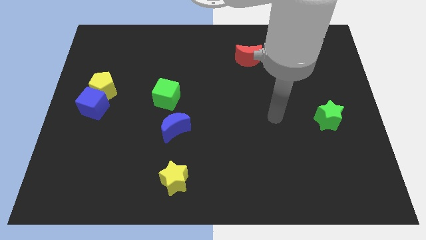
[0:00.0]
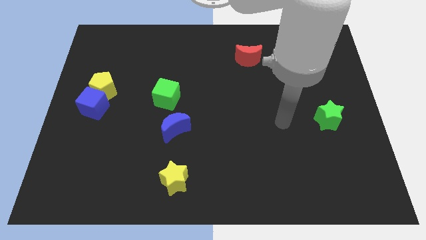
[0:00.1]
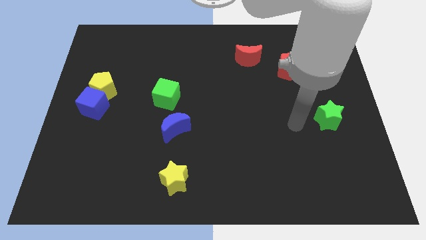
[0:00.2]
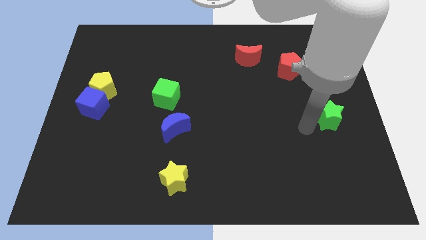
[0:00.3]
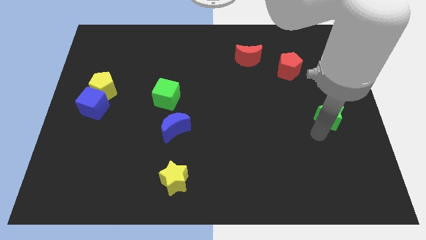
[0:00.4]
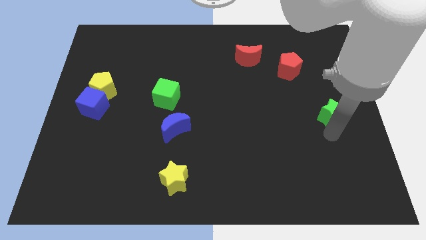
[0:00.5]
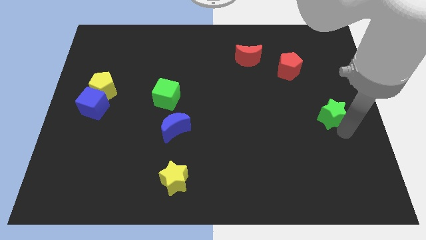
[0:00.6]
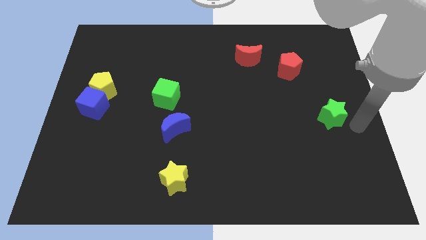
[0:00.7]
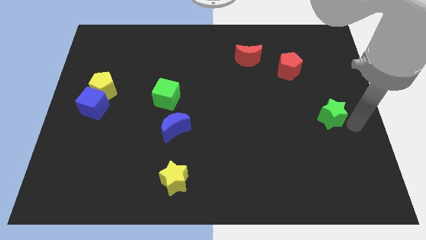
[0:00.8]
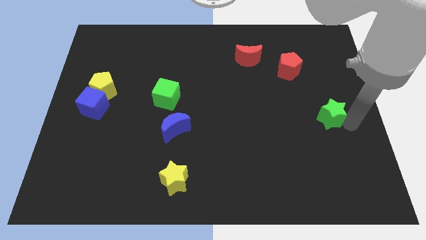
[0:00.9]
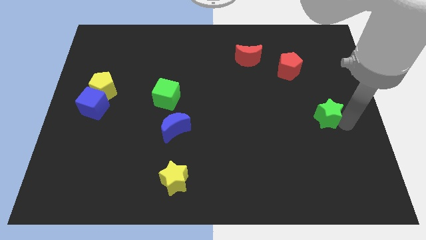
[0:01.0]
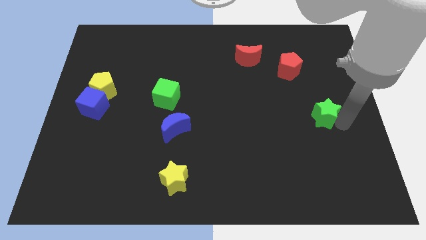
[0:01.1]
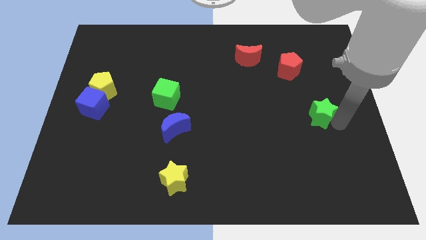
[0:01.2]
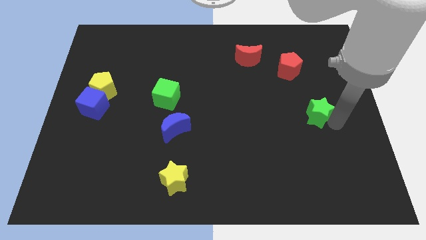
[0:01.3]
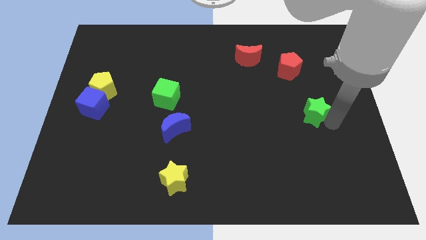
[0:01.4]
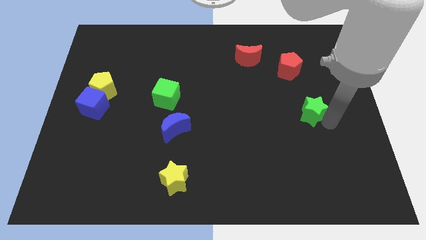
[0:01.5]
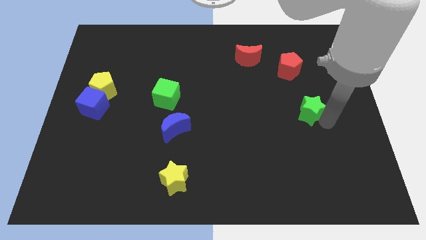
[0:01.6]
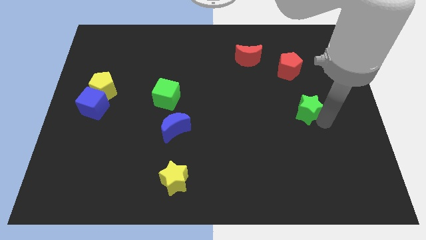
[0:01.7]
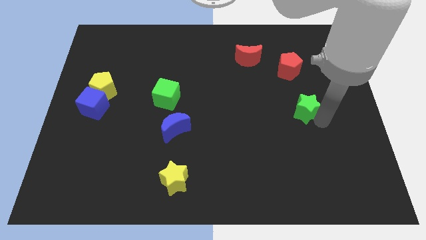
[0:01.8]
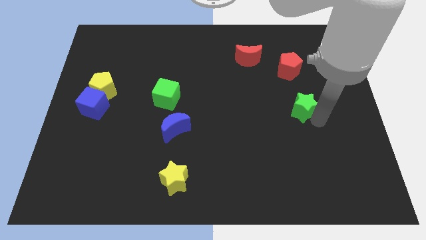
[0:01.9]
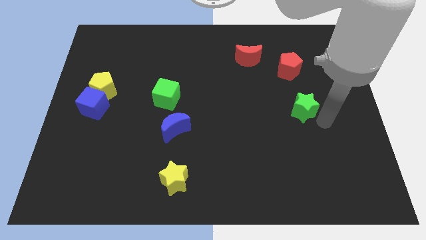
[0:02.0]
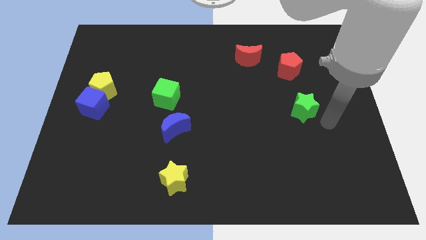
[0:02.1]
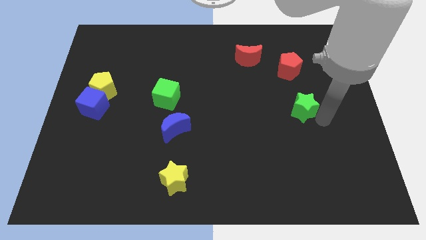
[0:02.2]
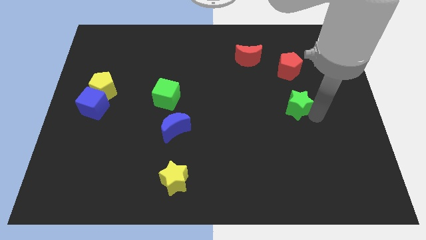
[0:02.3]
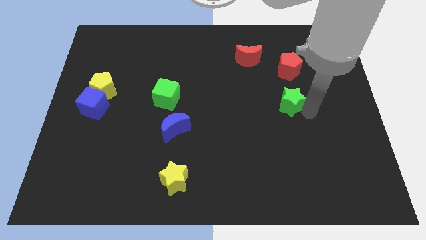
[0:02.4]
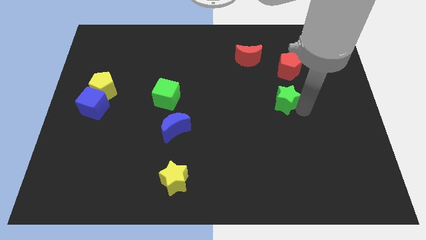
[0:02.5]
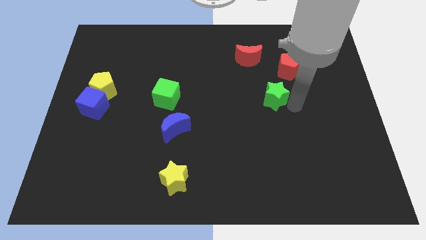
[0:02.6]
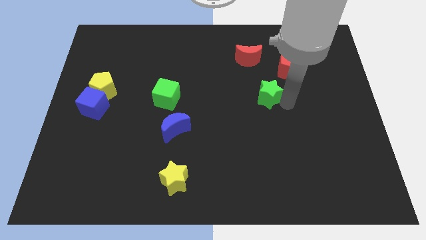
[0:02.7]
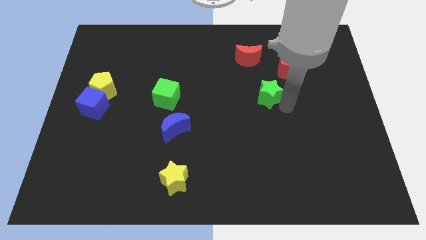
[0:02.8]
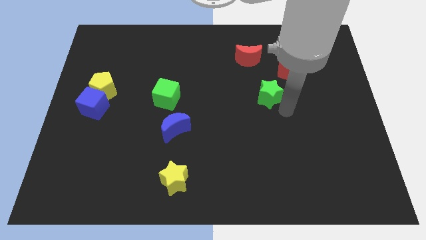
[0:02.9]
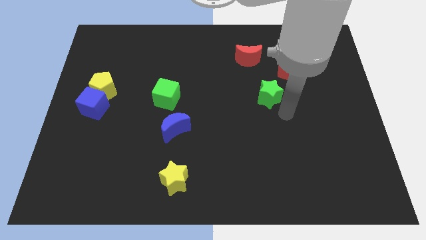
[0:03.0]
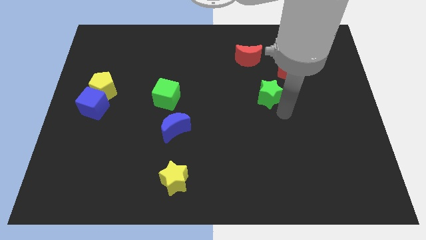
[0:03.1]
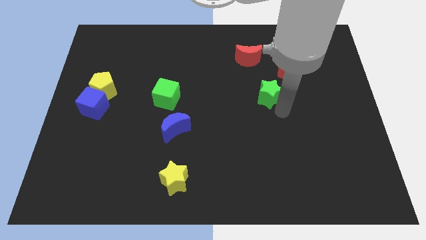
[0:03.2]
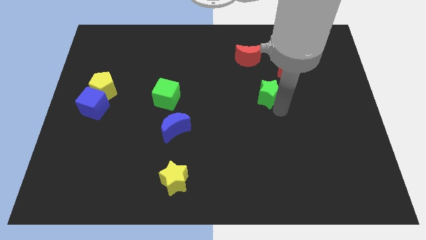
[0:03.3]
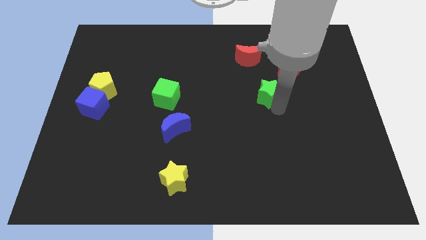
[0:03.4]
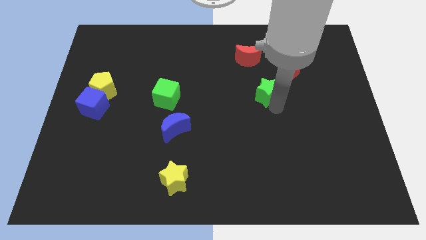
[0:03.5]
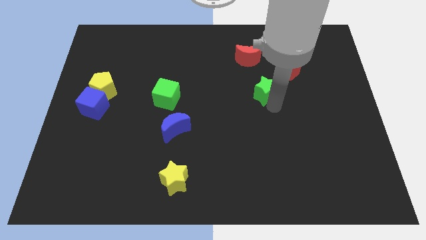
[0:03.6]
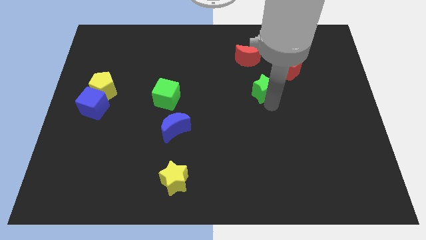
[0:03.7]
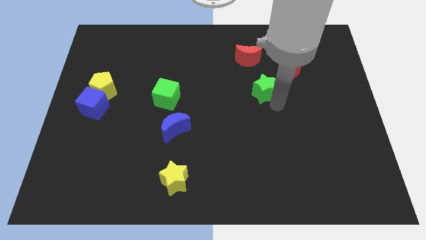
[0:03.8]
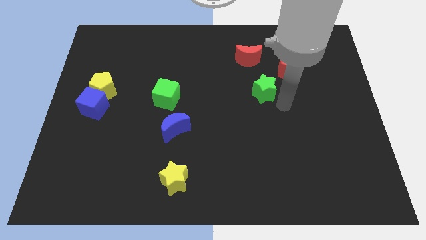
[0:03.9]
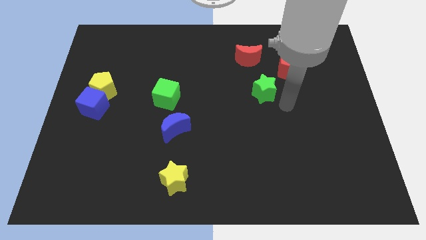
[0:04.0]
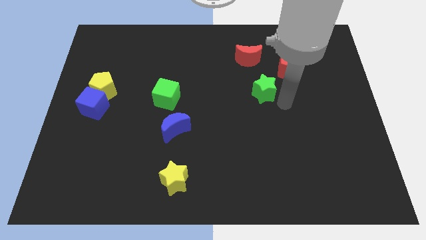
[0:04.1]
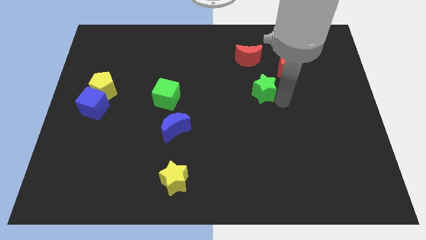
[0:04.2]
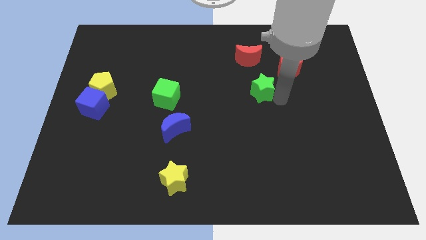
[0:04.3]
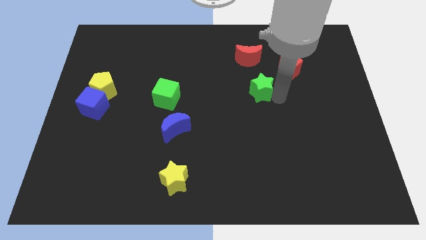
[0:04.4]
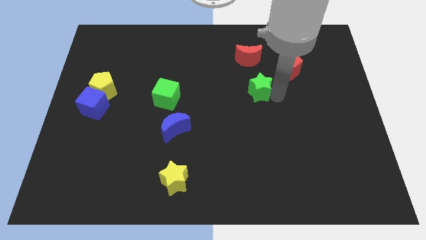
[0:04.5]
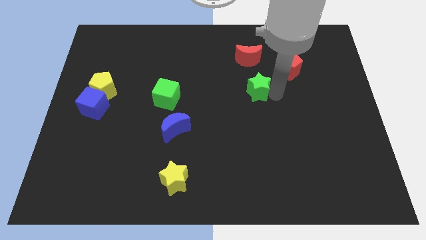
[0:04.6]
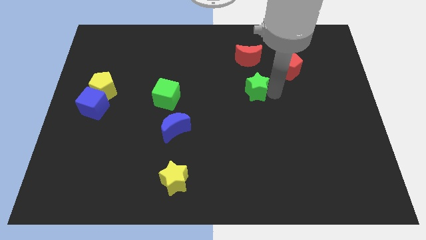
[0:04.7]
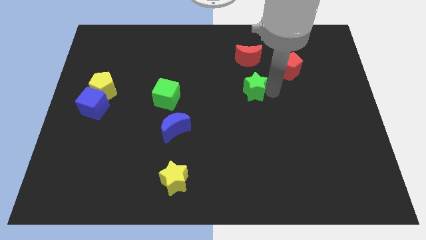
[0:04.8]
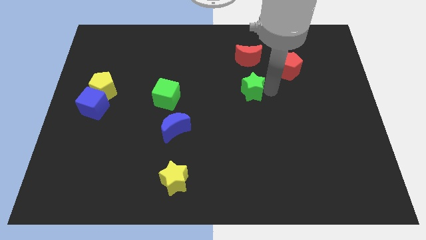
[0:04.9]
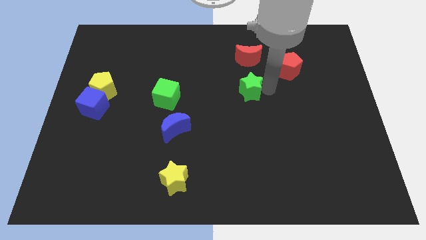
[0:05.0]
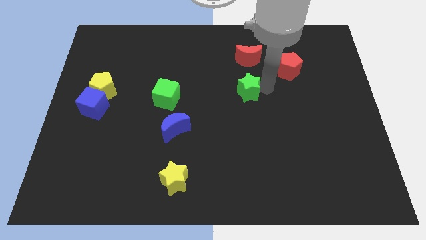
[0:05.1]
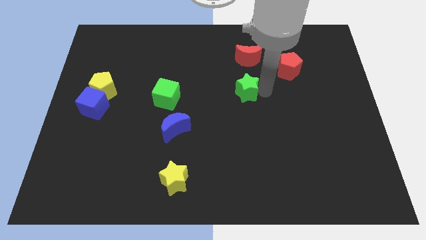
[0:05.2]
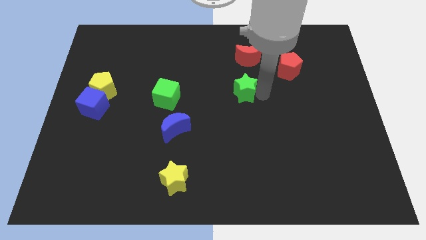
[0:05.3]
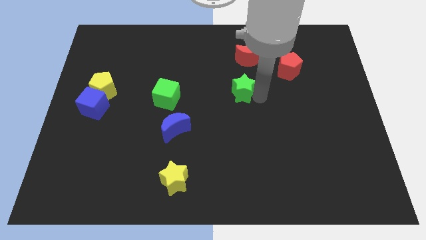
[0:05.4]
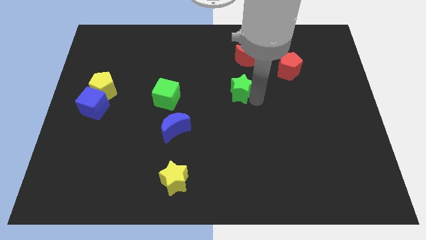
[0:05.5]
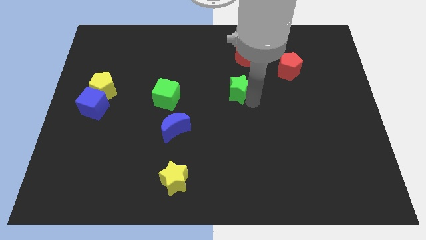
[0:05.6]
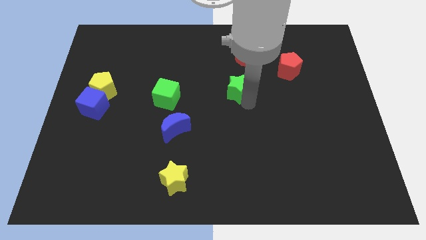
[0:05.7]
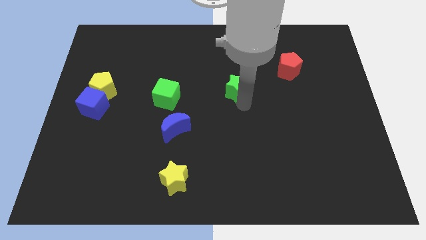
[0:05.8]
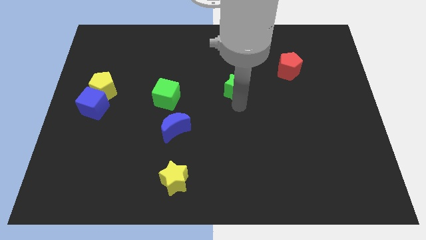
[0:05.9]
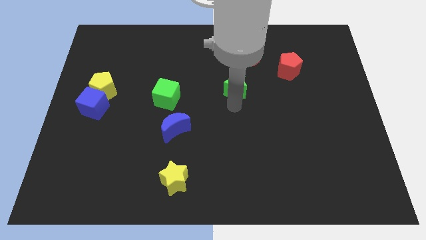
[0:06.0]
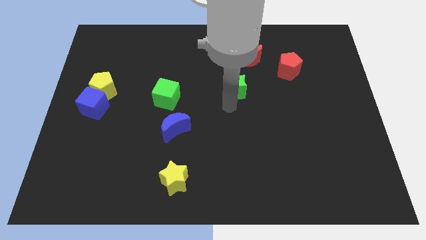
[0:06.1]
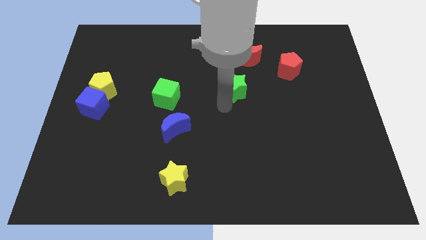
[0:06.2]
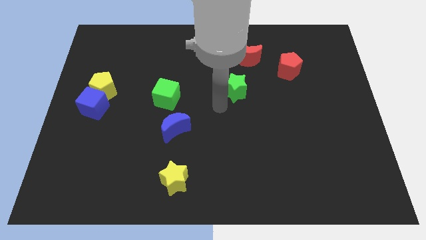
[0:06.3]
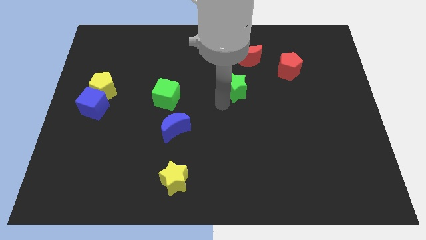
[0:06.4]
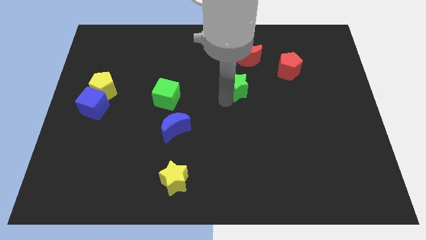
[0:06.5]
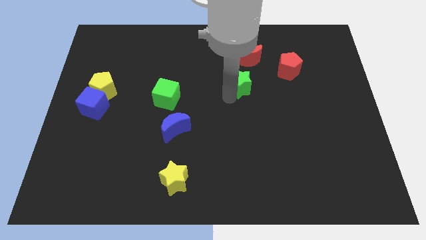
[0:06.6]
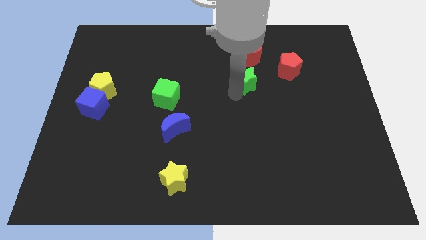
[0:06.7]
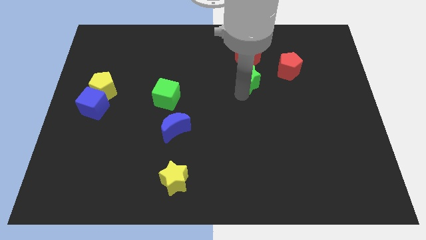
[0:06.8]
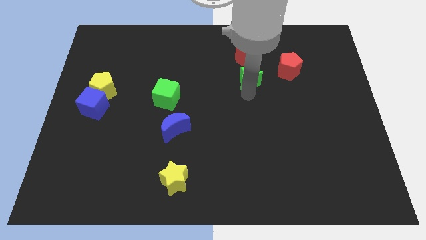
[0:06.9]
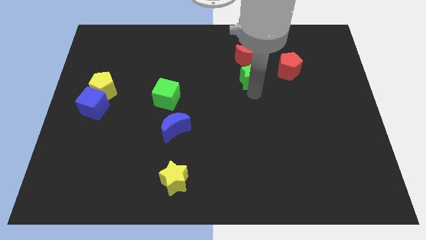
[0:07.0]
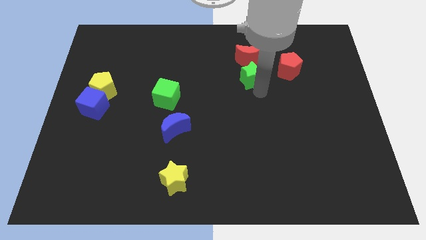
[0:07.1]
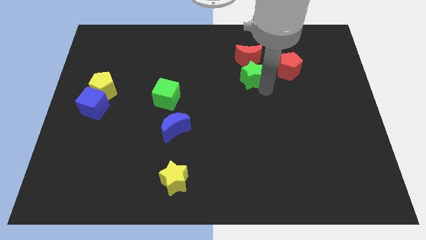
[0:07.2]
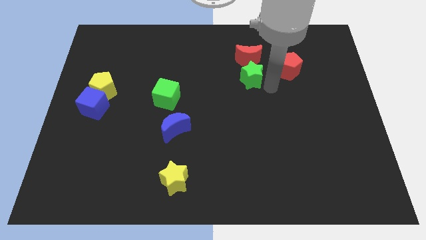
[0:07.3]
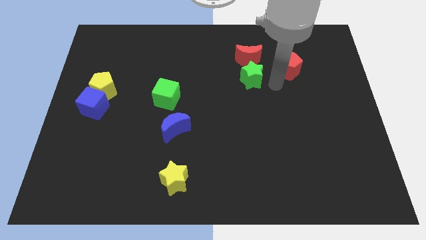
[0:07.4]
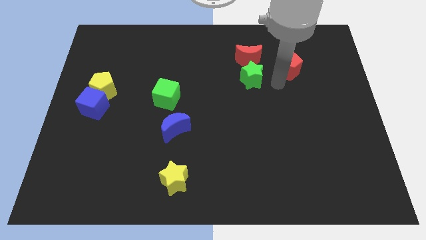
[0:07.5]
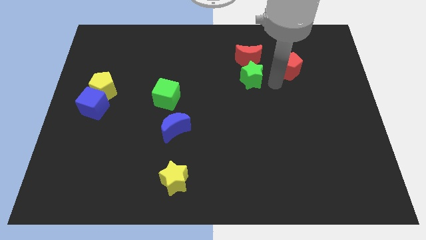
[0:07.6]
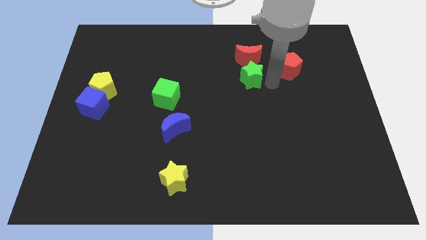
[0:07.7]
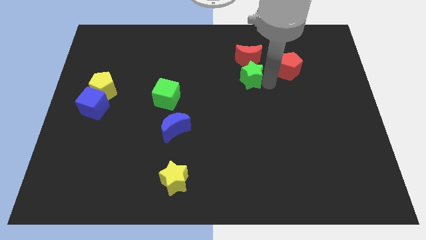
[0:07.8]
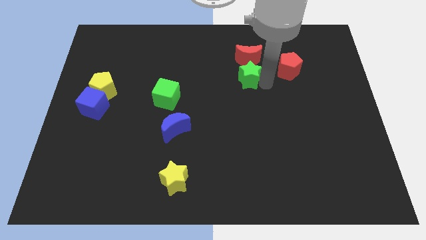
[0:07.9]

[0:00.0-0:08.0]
slide the green star to the bottom left side of the red moon
